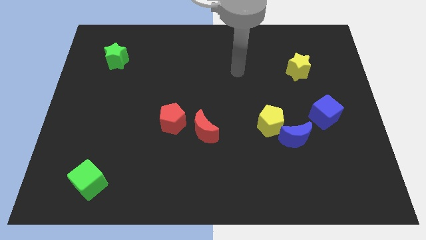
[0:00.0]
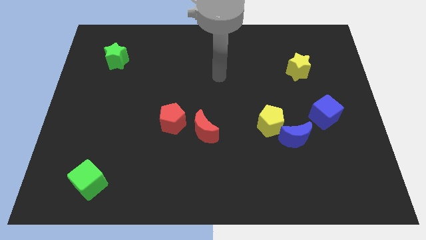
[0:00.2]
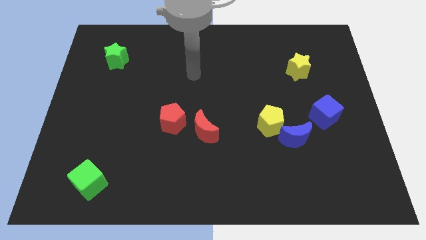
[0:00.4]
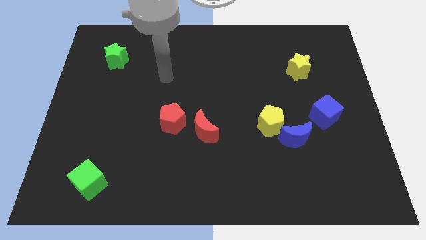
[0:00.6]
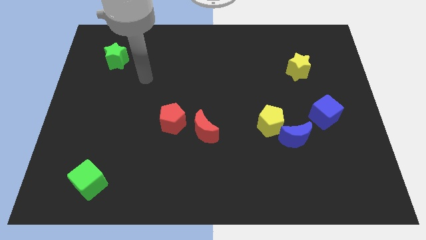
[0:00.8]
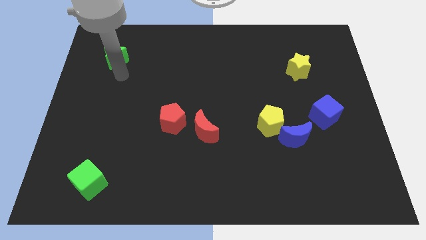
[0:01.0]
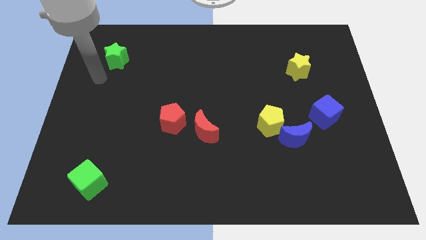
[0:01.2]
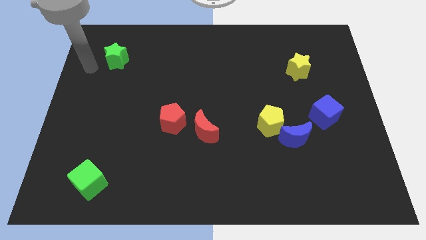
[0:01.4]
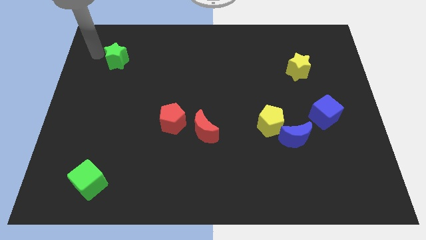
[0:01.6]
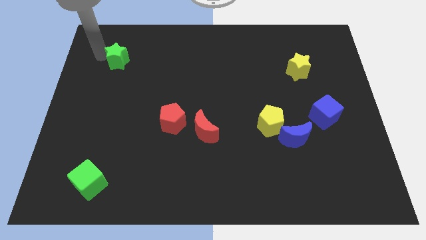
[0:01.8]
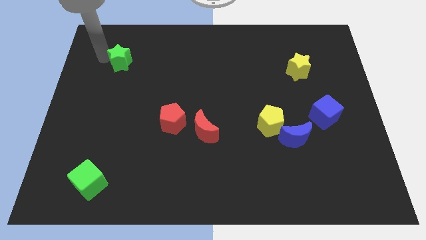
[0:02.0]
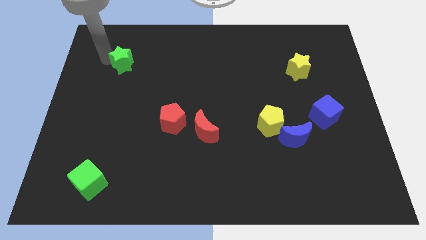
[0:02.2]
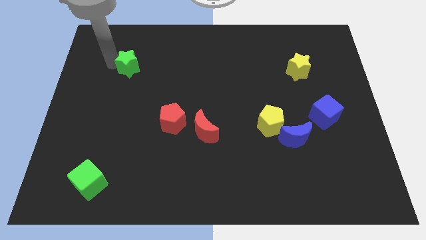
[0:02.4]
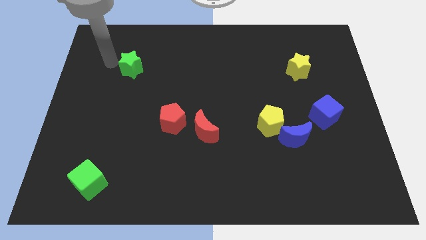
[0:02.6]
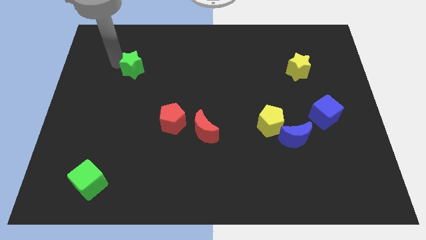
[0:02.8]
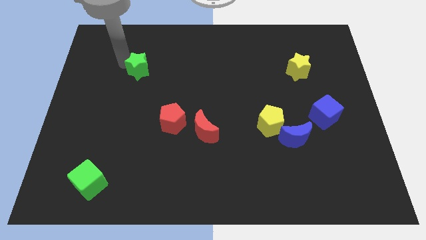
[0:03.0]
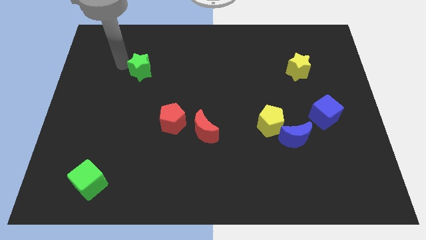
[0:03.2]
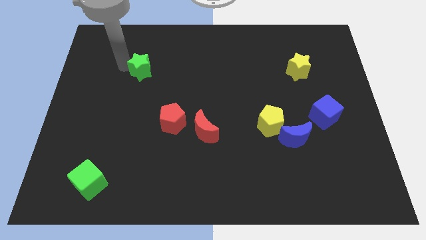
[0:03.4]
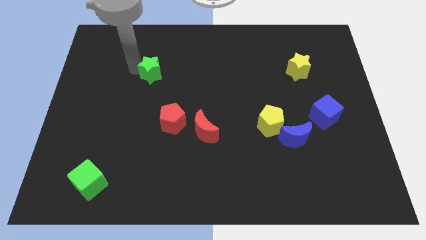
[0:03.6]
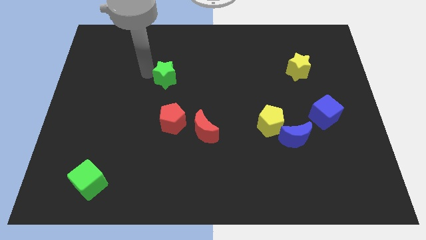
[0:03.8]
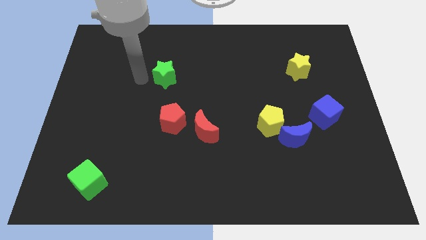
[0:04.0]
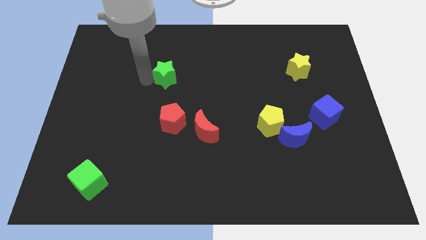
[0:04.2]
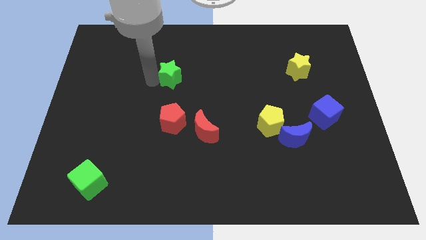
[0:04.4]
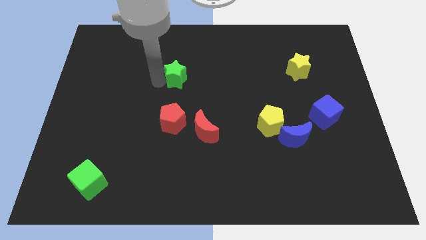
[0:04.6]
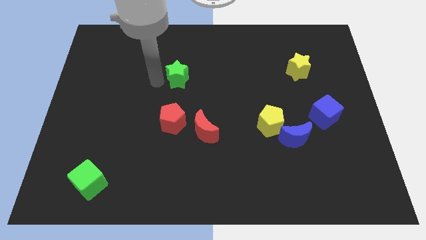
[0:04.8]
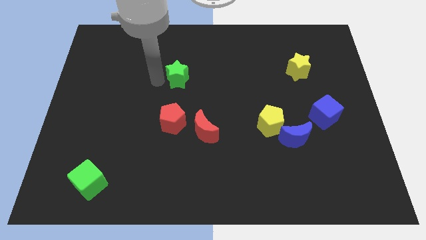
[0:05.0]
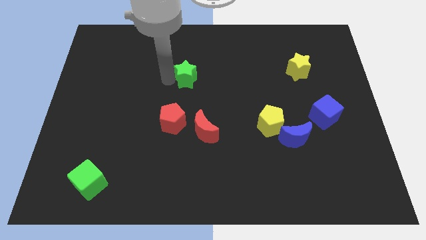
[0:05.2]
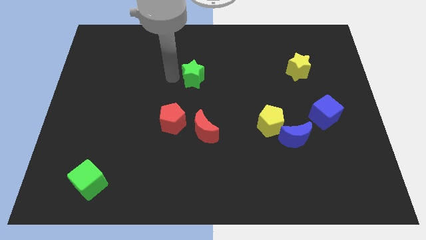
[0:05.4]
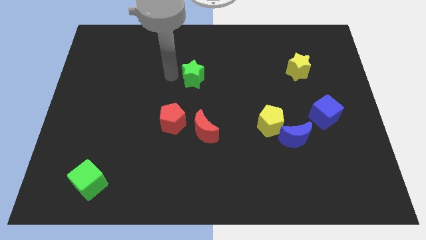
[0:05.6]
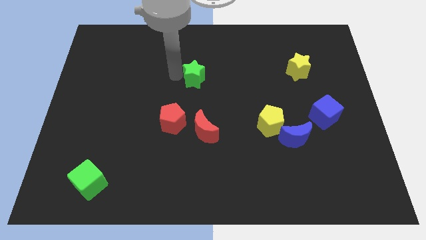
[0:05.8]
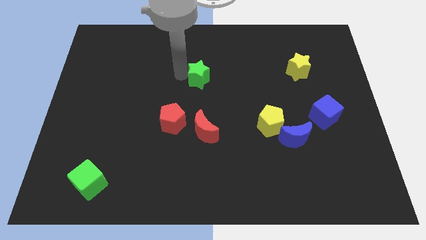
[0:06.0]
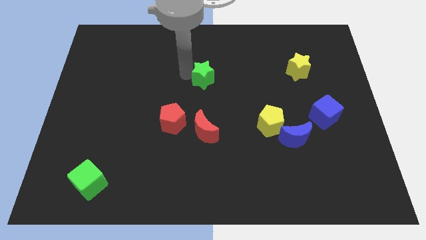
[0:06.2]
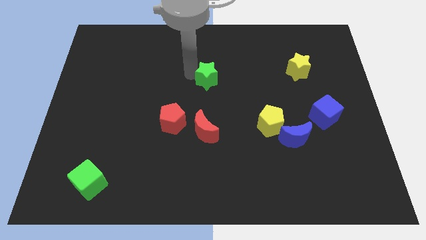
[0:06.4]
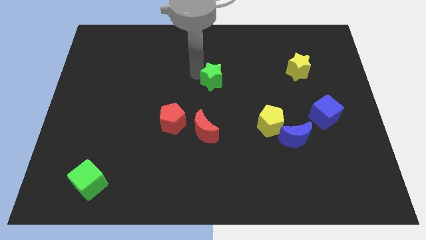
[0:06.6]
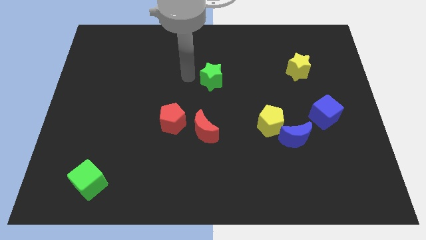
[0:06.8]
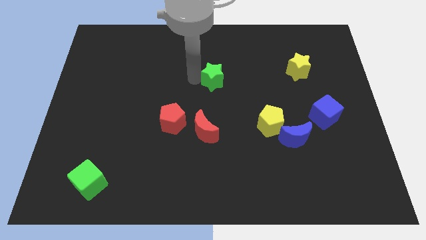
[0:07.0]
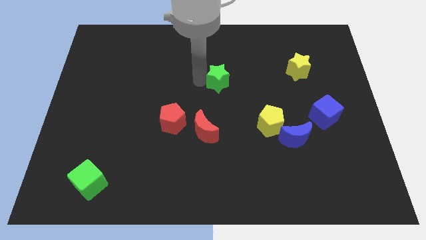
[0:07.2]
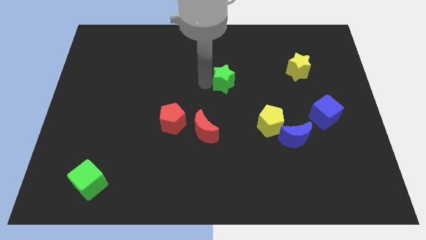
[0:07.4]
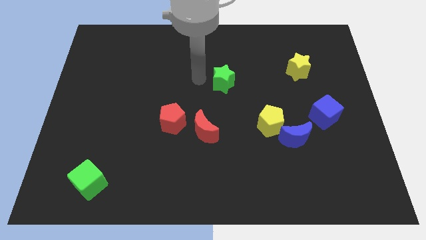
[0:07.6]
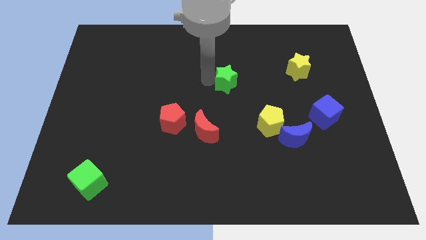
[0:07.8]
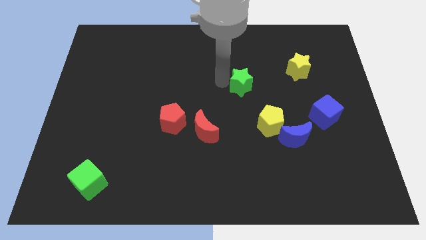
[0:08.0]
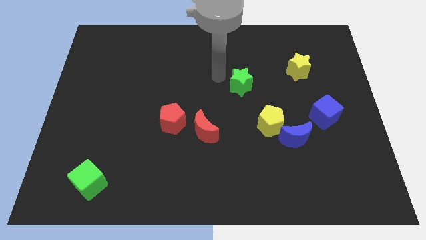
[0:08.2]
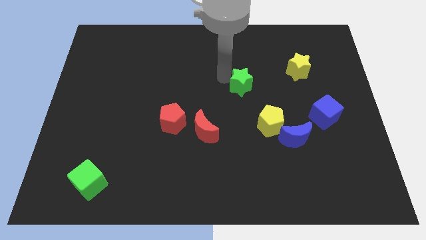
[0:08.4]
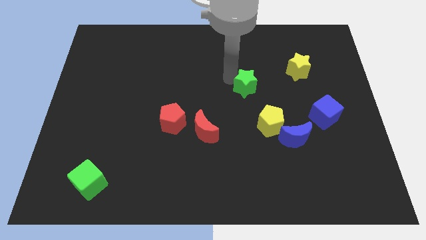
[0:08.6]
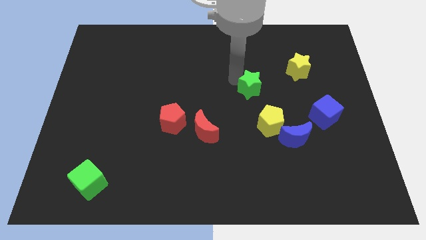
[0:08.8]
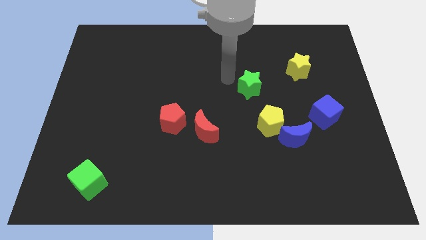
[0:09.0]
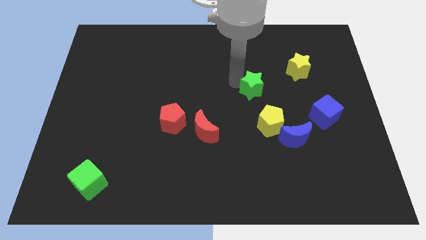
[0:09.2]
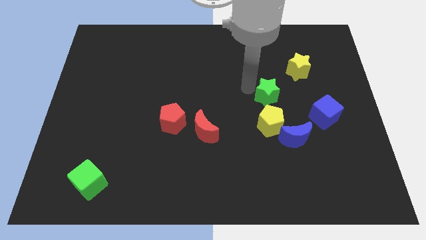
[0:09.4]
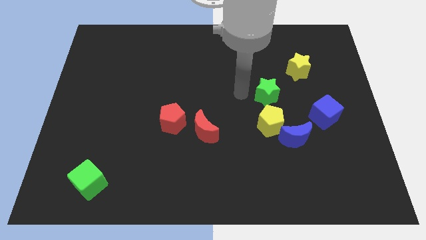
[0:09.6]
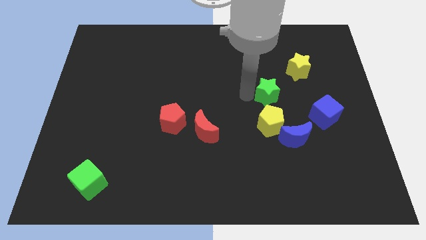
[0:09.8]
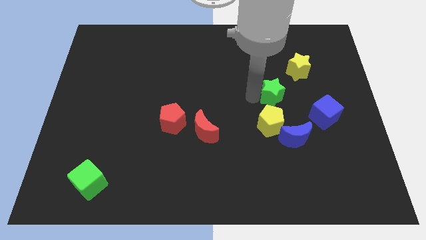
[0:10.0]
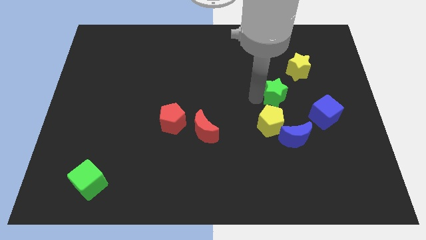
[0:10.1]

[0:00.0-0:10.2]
slide the green star to the top left of the blue cube

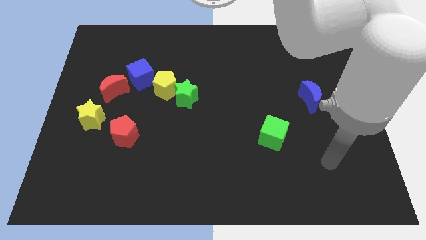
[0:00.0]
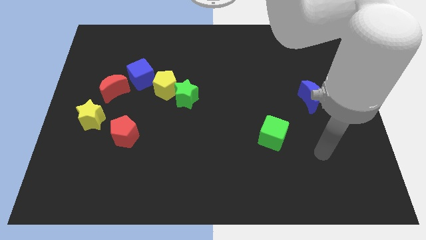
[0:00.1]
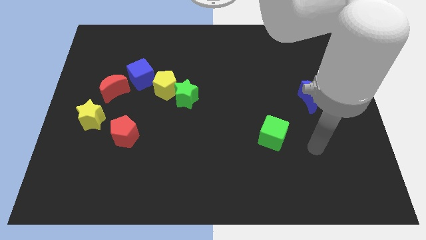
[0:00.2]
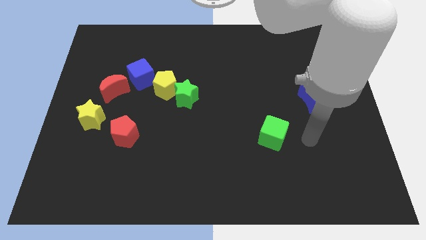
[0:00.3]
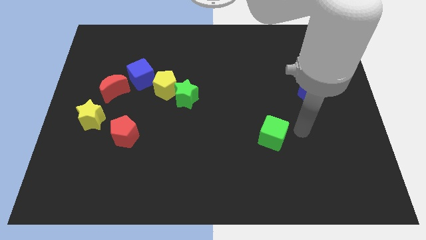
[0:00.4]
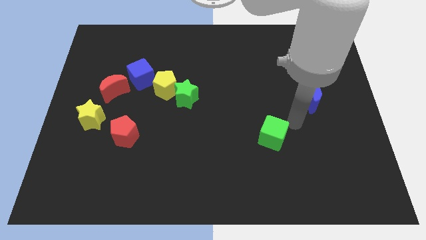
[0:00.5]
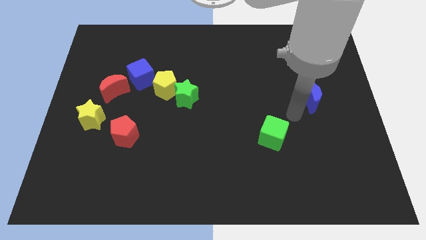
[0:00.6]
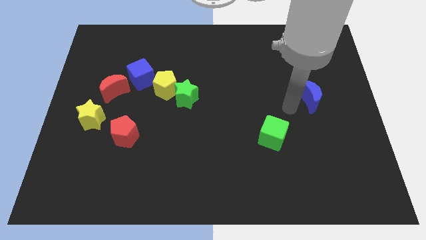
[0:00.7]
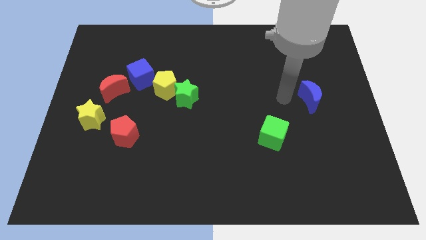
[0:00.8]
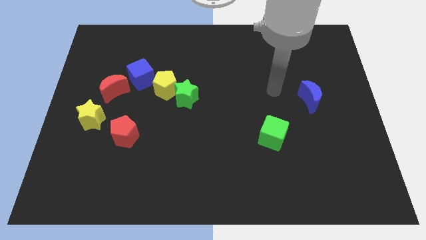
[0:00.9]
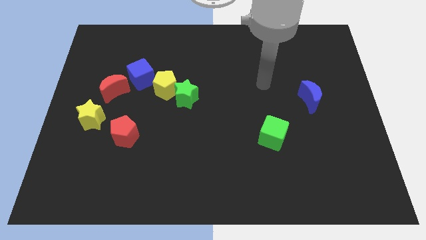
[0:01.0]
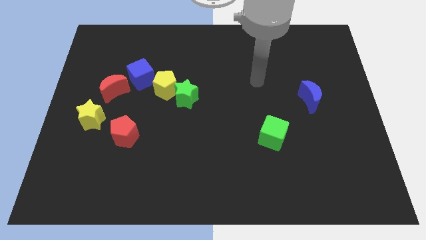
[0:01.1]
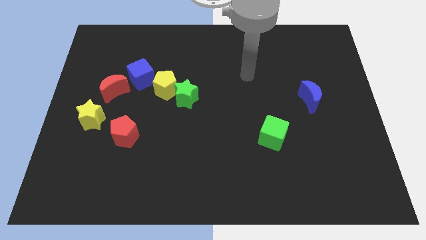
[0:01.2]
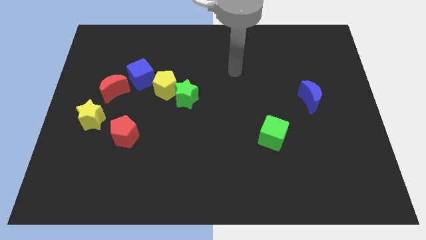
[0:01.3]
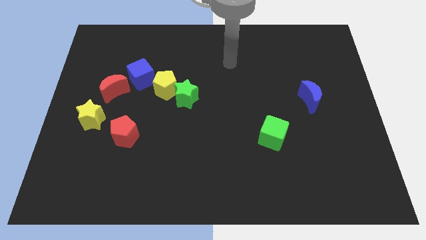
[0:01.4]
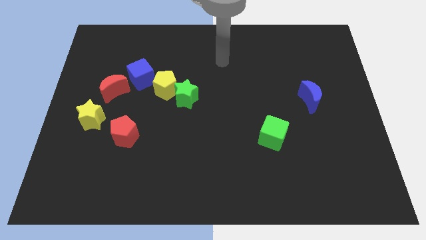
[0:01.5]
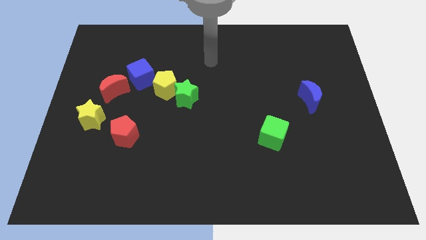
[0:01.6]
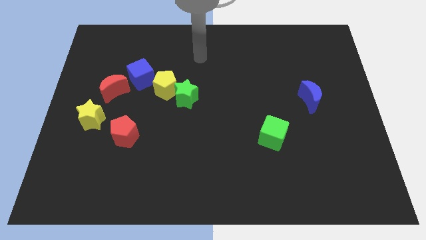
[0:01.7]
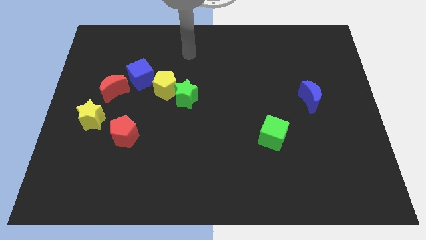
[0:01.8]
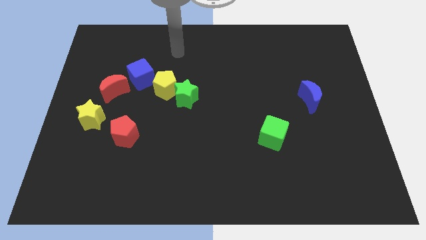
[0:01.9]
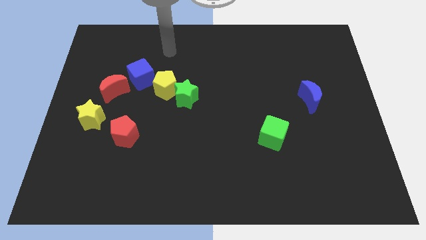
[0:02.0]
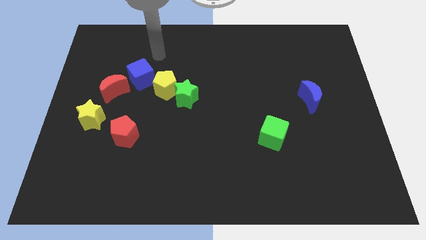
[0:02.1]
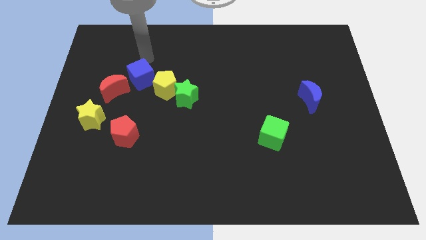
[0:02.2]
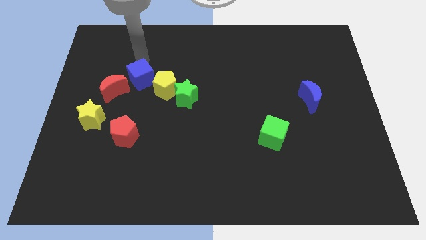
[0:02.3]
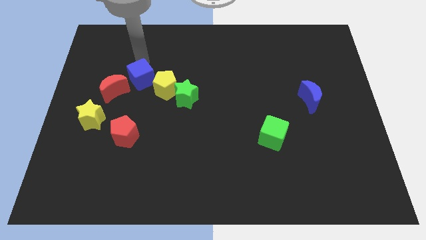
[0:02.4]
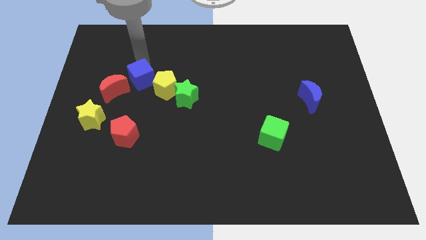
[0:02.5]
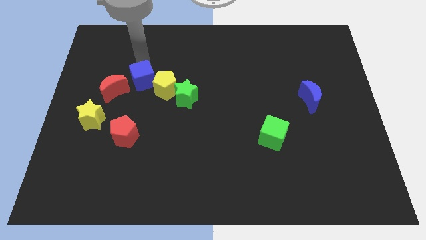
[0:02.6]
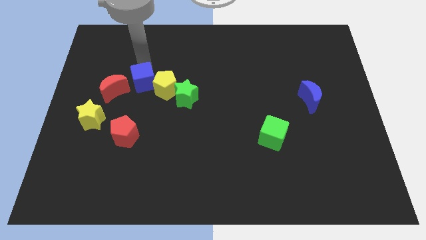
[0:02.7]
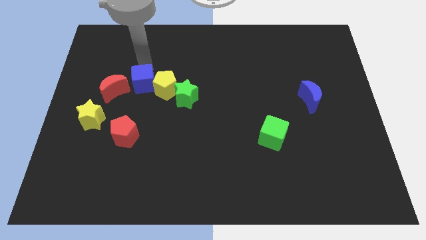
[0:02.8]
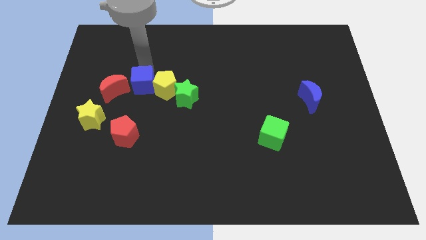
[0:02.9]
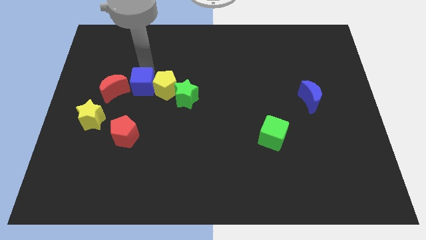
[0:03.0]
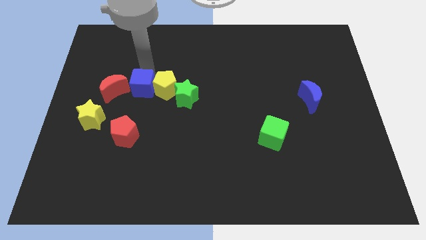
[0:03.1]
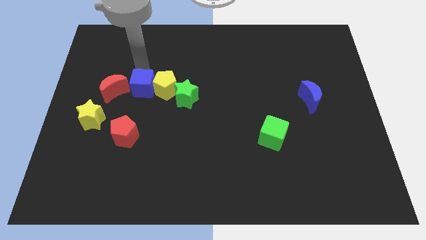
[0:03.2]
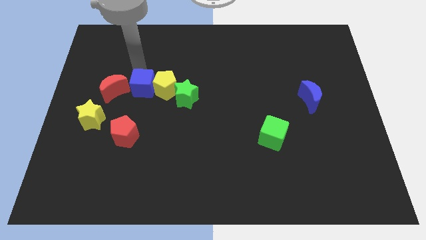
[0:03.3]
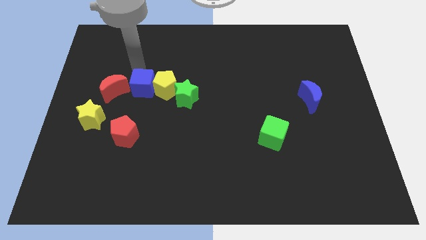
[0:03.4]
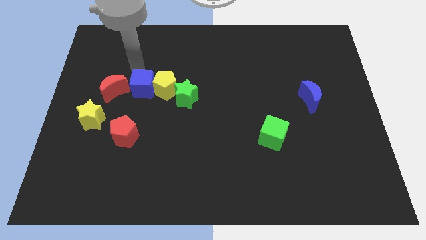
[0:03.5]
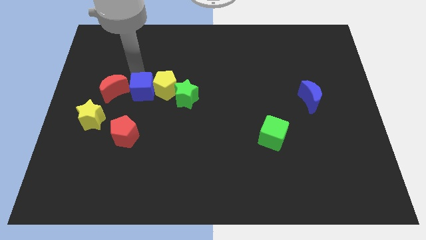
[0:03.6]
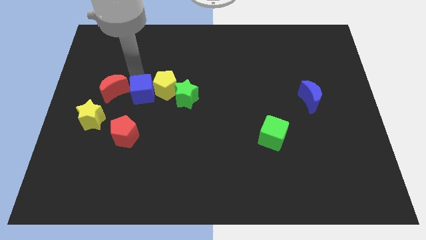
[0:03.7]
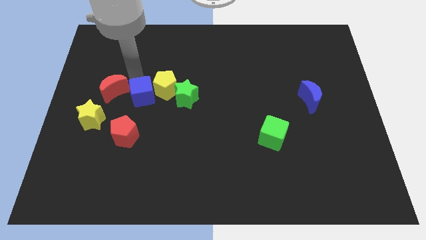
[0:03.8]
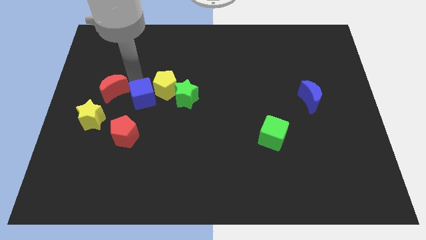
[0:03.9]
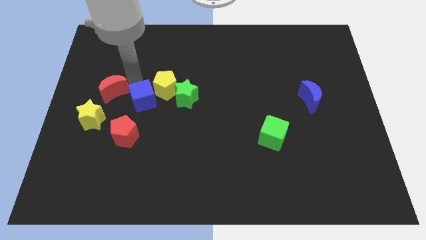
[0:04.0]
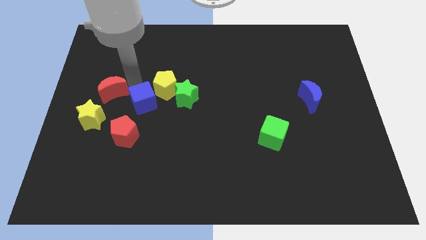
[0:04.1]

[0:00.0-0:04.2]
put the blue cube diagonally up and to the right of the red pentagon
